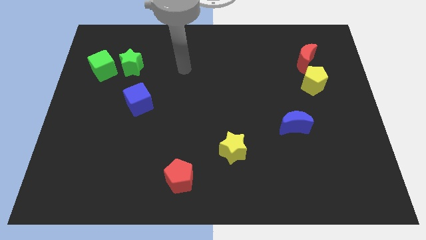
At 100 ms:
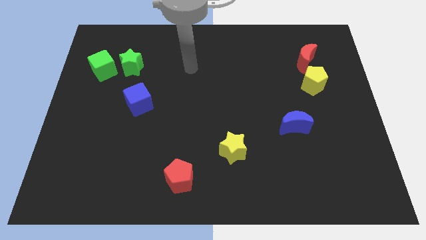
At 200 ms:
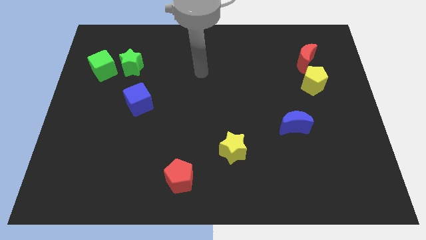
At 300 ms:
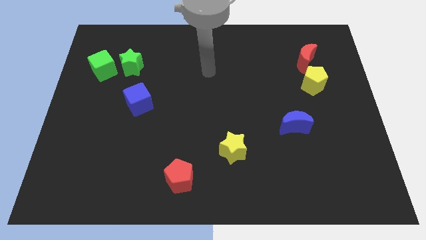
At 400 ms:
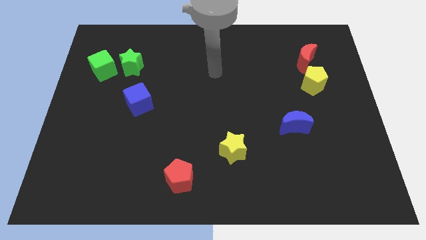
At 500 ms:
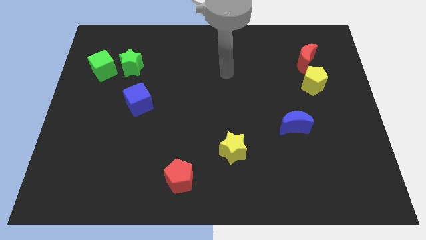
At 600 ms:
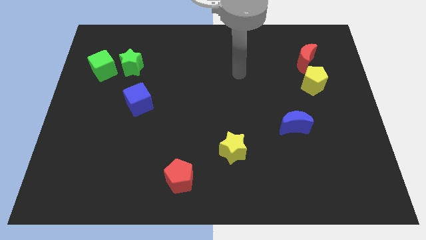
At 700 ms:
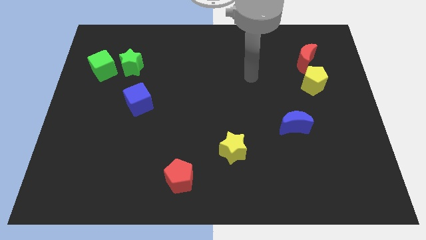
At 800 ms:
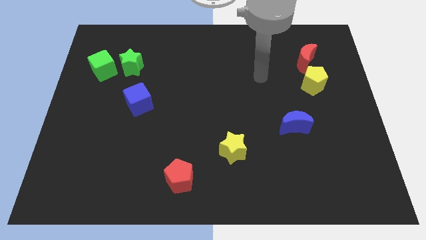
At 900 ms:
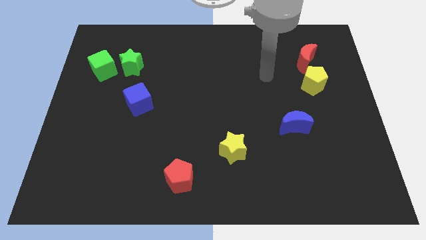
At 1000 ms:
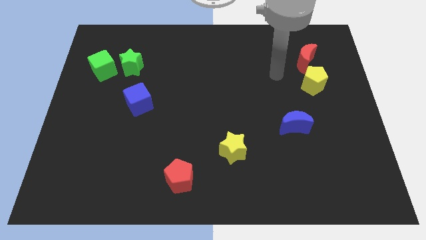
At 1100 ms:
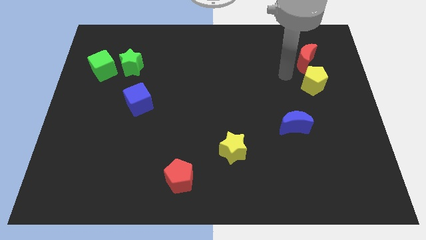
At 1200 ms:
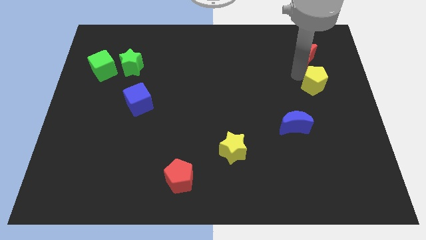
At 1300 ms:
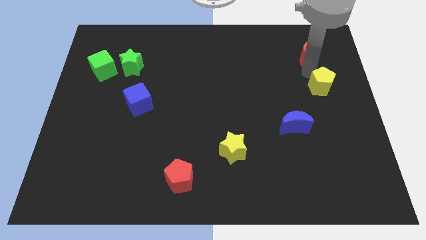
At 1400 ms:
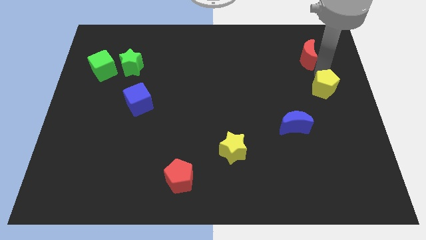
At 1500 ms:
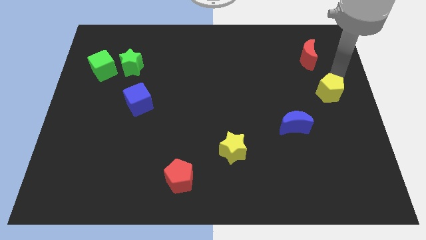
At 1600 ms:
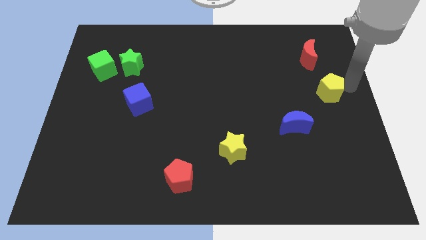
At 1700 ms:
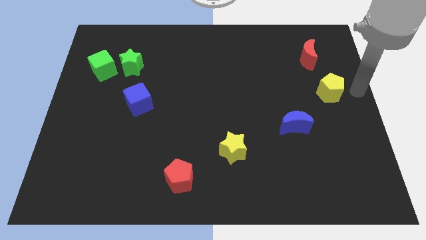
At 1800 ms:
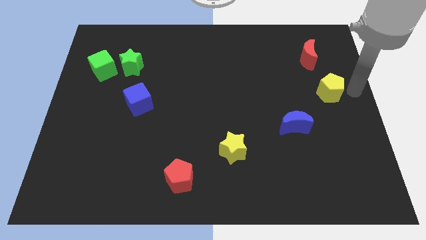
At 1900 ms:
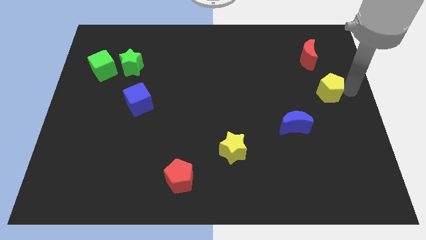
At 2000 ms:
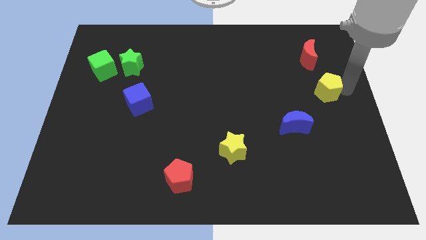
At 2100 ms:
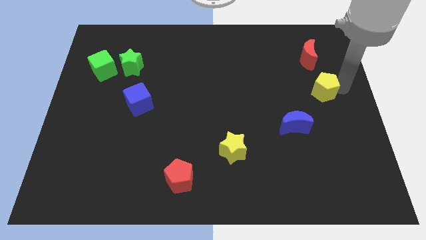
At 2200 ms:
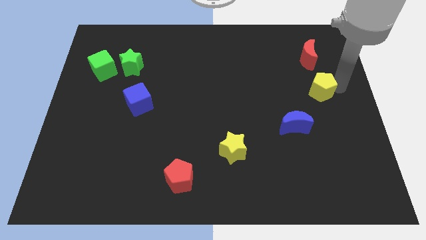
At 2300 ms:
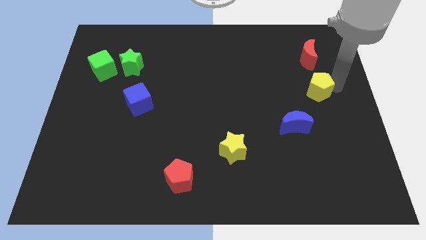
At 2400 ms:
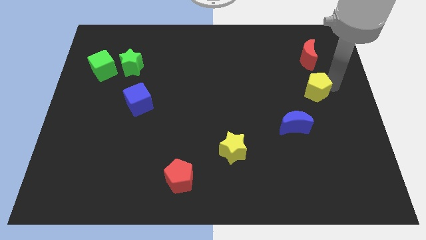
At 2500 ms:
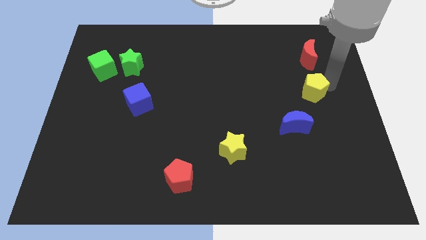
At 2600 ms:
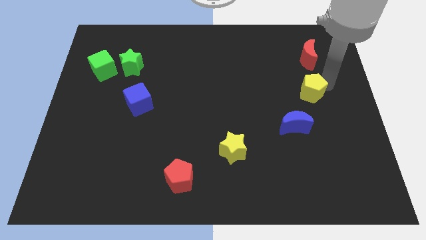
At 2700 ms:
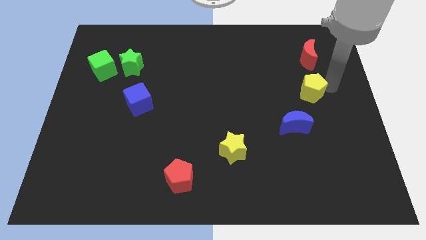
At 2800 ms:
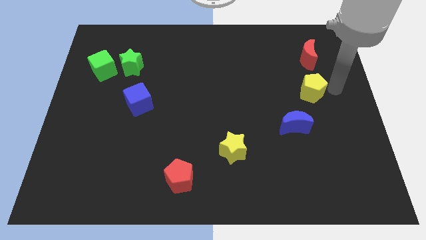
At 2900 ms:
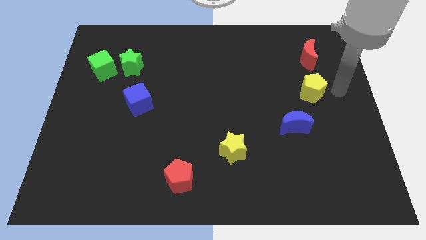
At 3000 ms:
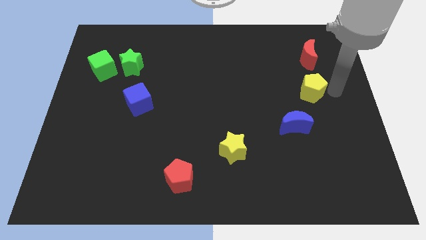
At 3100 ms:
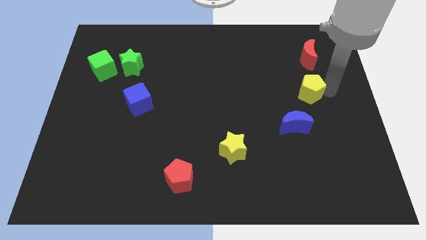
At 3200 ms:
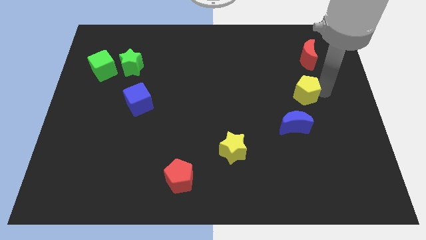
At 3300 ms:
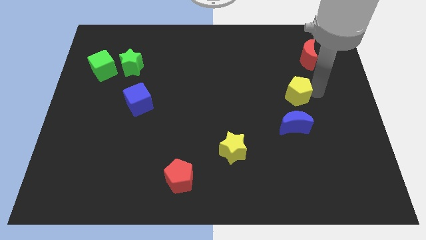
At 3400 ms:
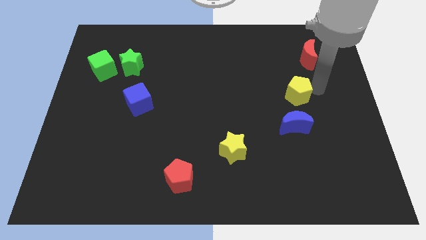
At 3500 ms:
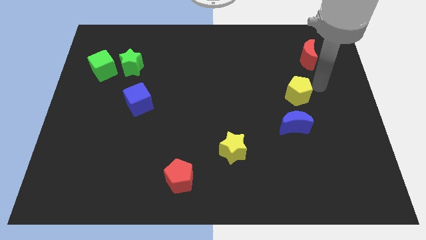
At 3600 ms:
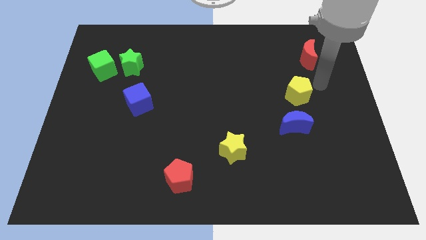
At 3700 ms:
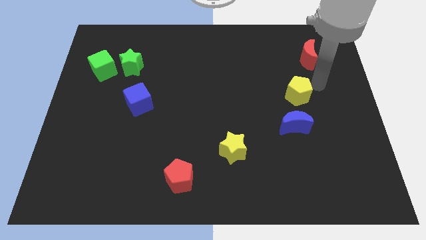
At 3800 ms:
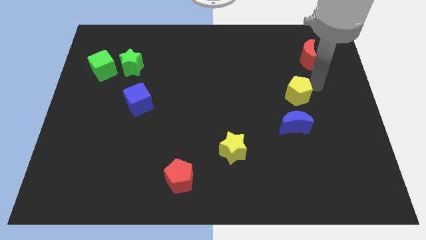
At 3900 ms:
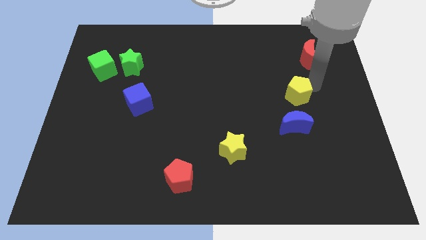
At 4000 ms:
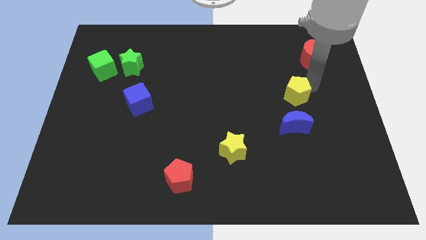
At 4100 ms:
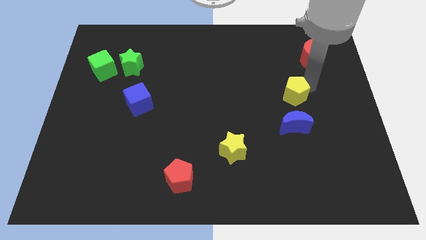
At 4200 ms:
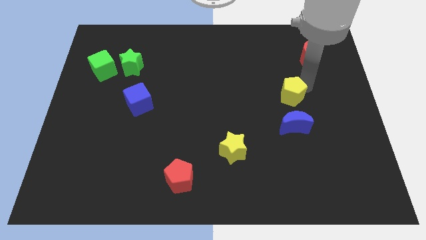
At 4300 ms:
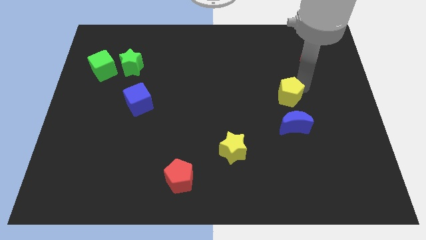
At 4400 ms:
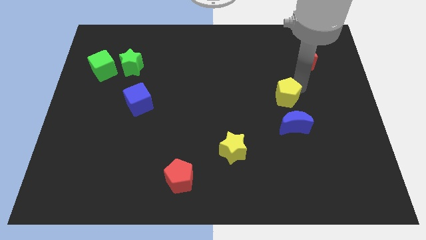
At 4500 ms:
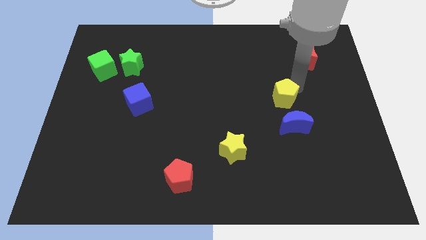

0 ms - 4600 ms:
put the yellow pentagon diagonally up and to the left of the blue moon

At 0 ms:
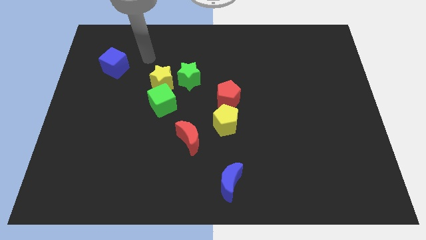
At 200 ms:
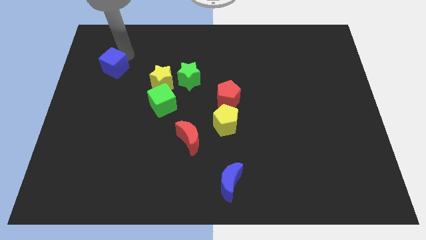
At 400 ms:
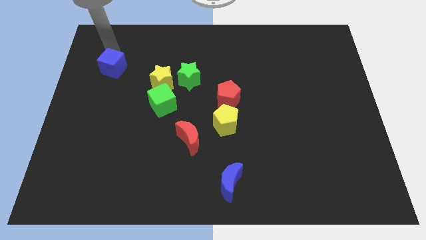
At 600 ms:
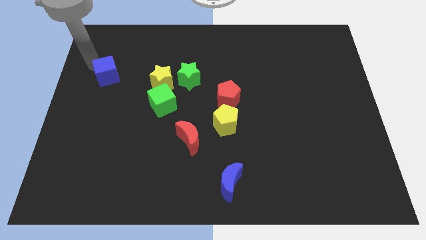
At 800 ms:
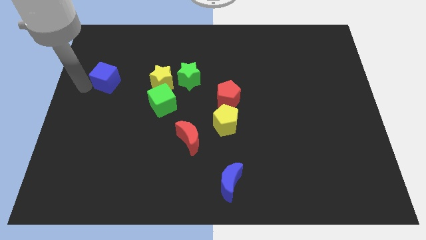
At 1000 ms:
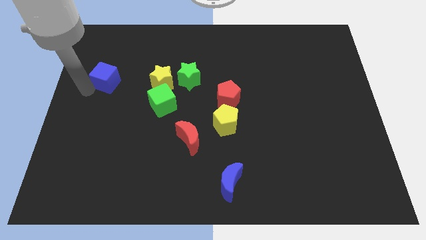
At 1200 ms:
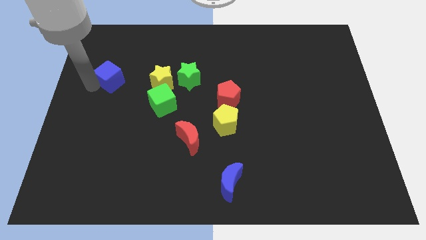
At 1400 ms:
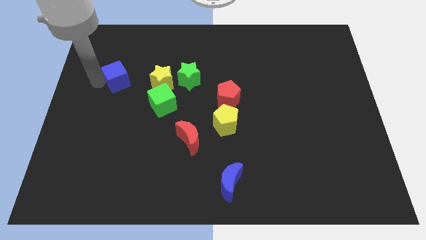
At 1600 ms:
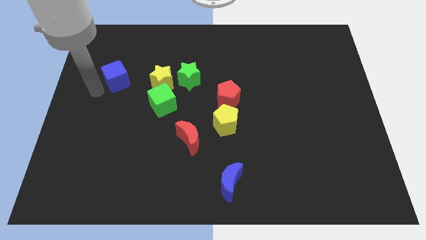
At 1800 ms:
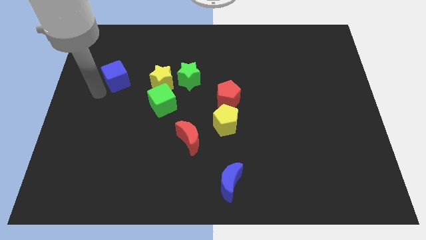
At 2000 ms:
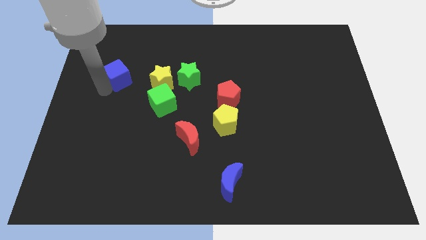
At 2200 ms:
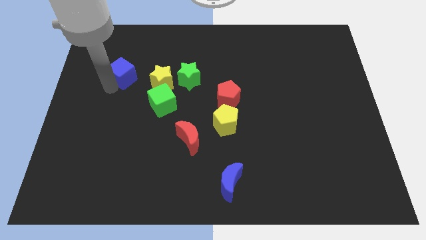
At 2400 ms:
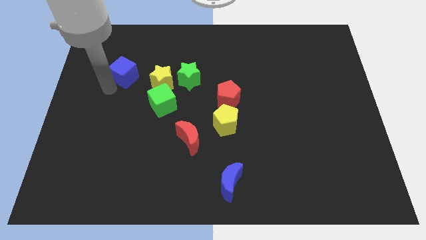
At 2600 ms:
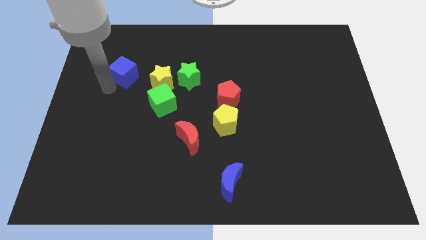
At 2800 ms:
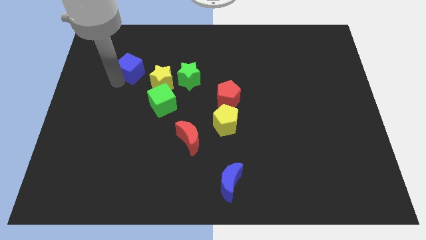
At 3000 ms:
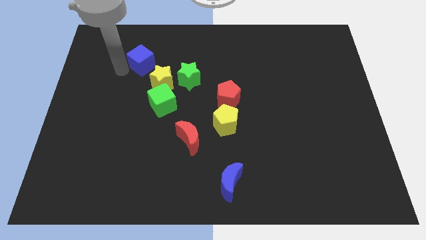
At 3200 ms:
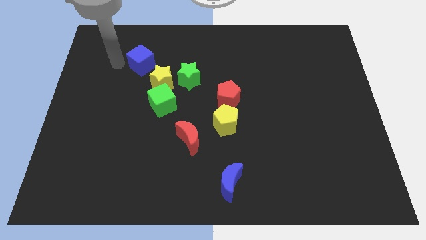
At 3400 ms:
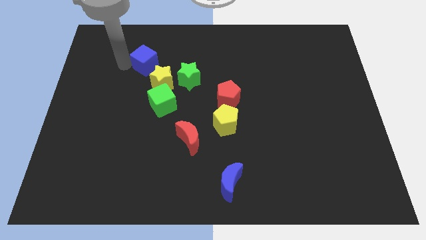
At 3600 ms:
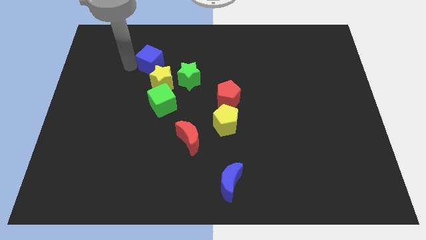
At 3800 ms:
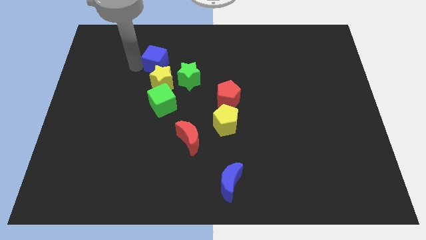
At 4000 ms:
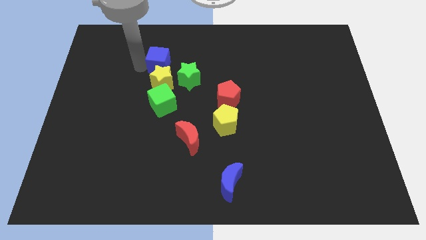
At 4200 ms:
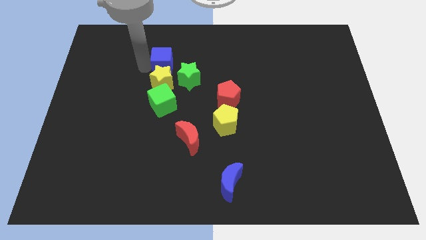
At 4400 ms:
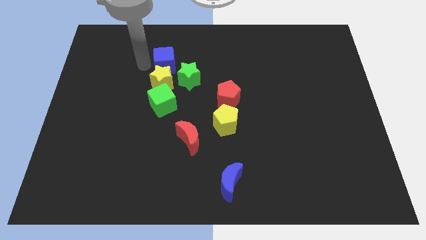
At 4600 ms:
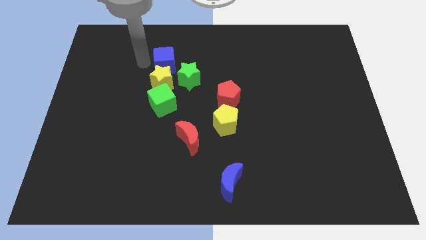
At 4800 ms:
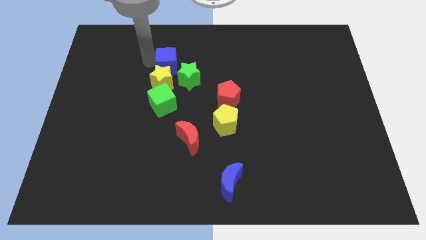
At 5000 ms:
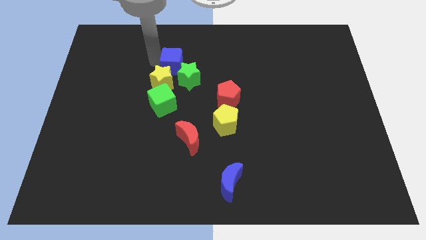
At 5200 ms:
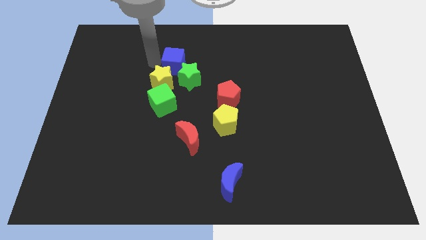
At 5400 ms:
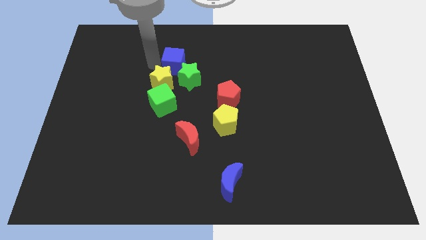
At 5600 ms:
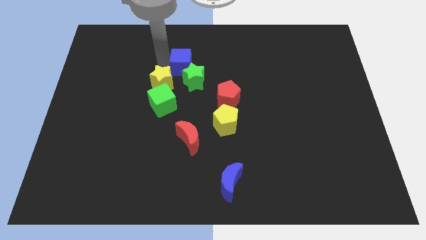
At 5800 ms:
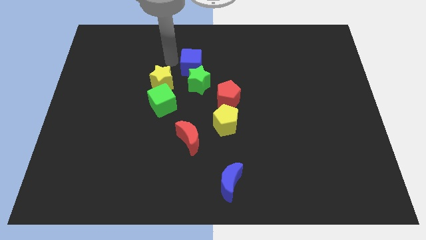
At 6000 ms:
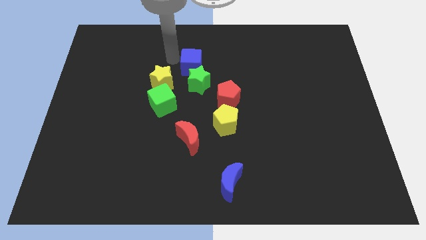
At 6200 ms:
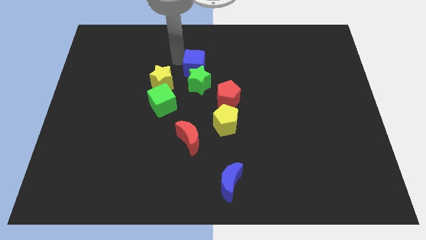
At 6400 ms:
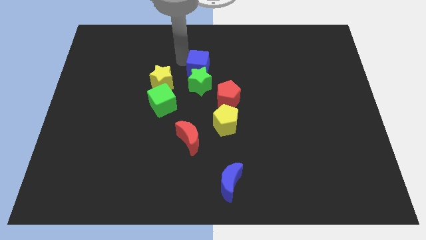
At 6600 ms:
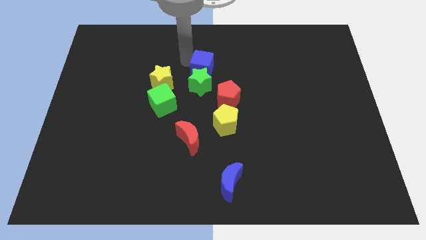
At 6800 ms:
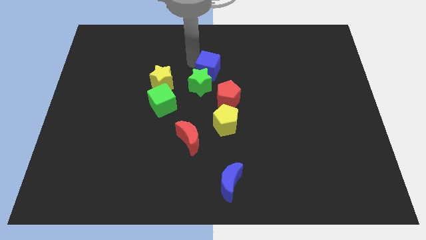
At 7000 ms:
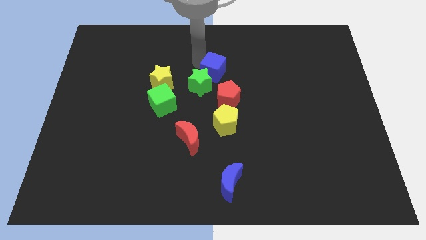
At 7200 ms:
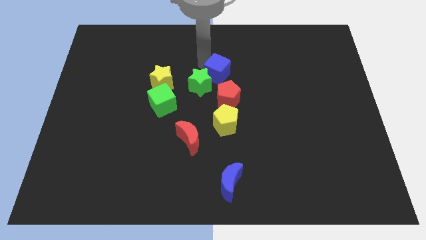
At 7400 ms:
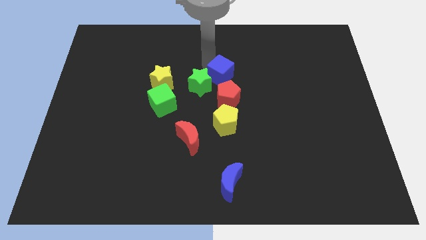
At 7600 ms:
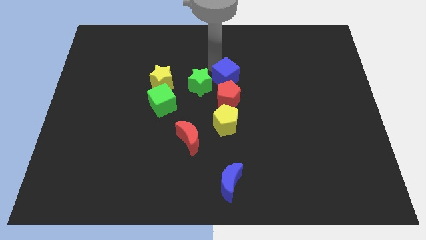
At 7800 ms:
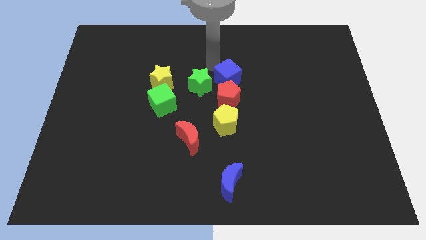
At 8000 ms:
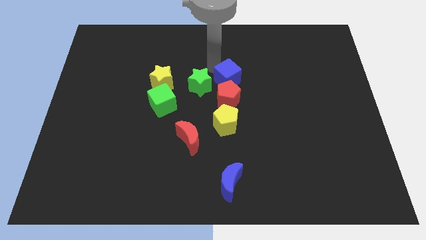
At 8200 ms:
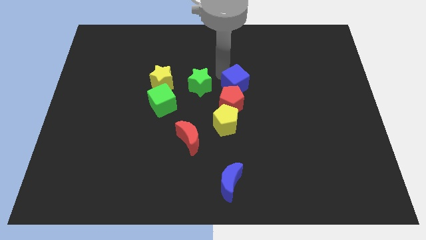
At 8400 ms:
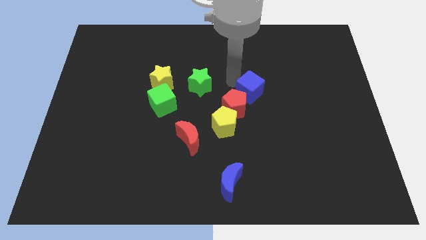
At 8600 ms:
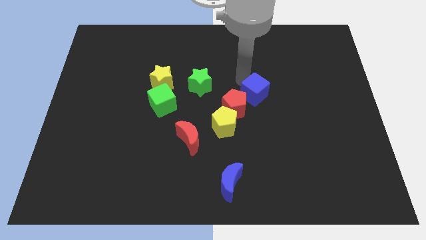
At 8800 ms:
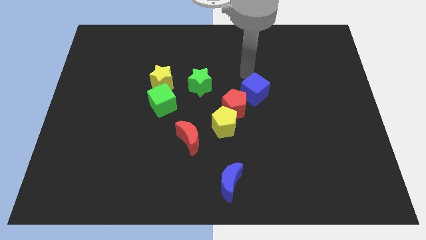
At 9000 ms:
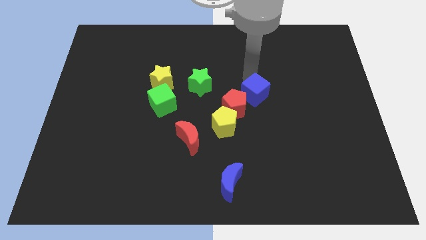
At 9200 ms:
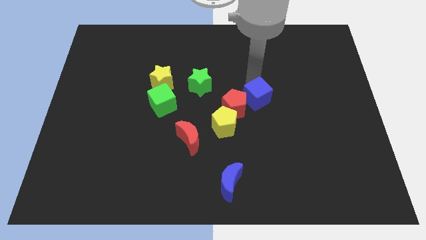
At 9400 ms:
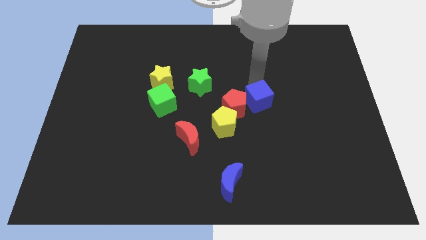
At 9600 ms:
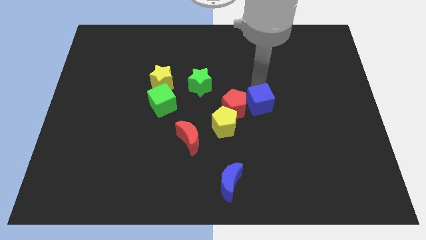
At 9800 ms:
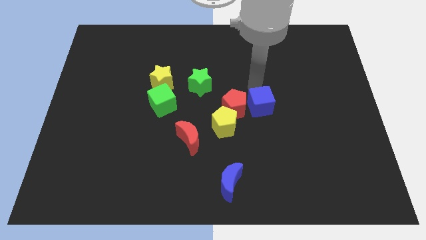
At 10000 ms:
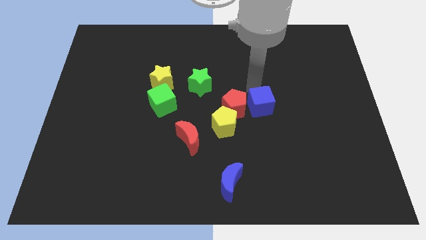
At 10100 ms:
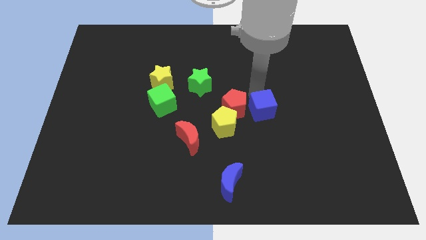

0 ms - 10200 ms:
push the blue cube to the right of the yellow pentagon
